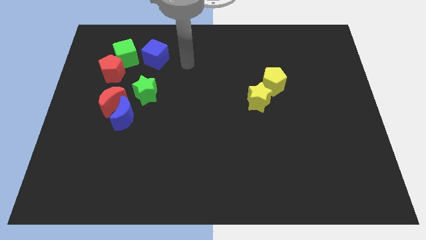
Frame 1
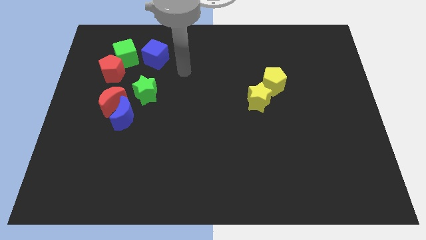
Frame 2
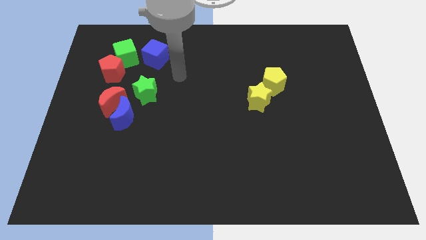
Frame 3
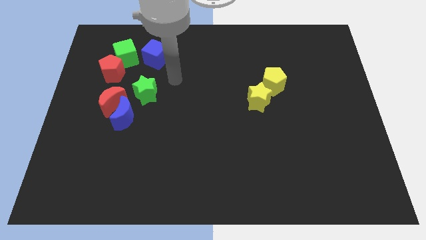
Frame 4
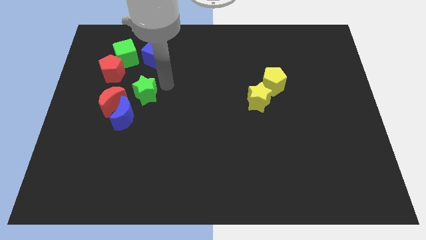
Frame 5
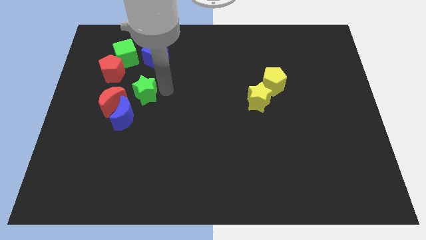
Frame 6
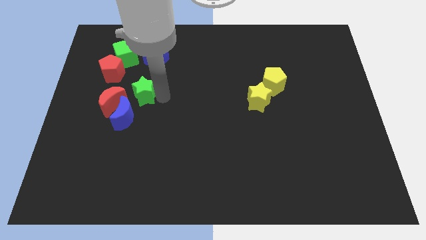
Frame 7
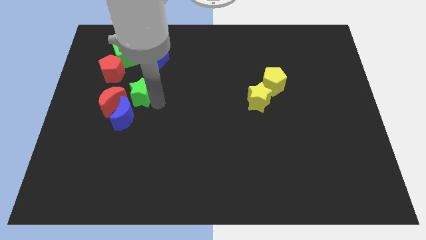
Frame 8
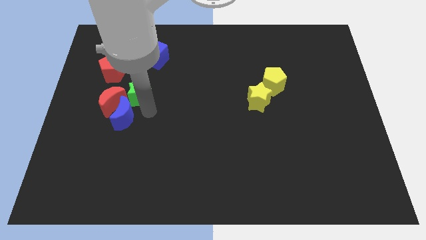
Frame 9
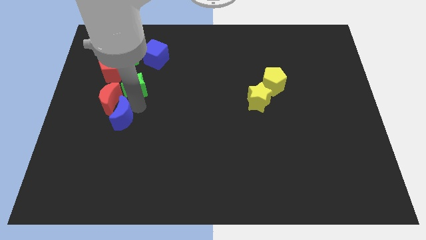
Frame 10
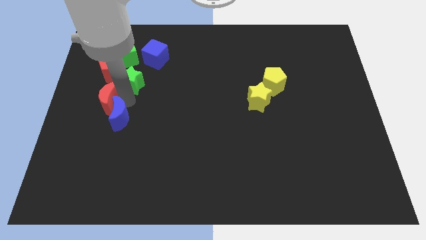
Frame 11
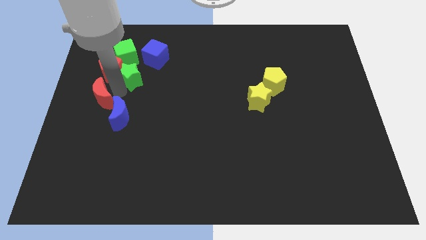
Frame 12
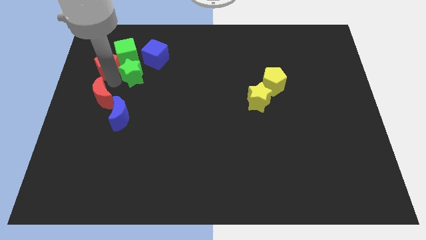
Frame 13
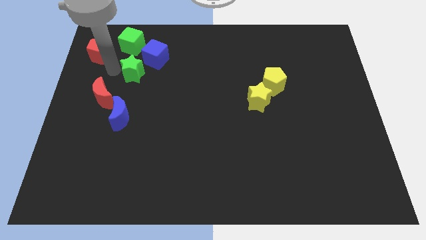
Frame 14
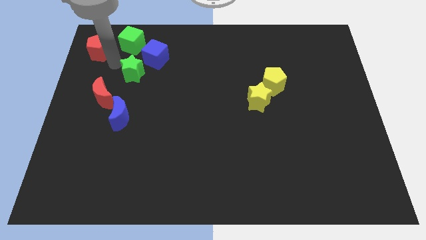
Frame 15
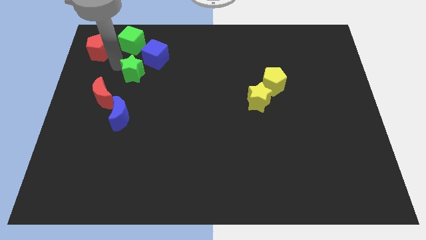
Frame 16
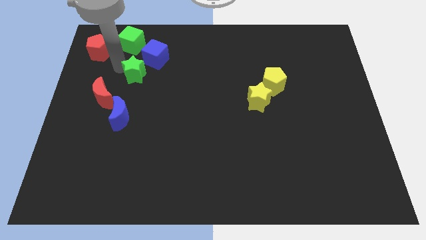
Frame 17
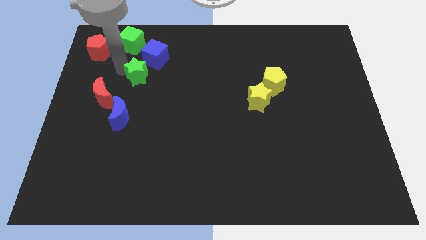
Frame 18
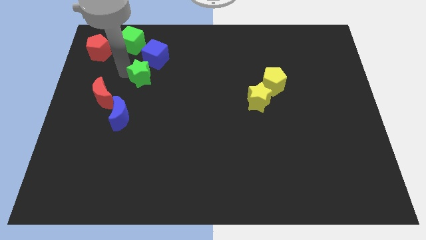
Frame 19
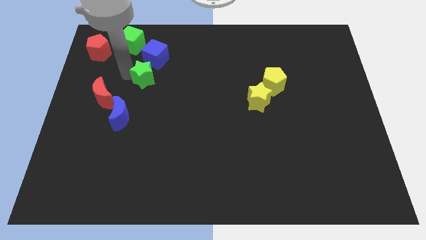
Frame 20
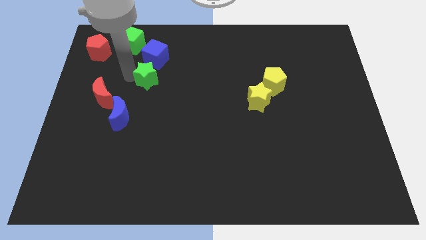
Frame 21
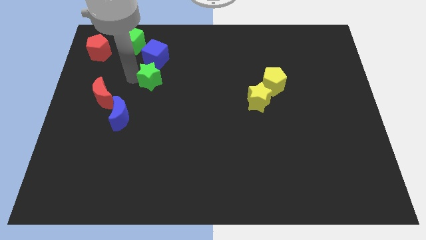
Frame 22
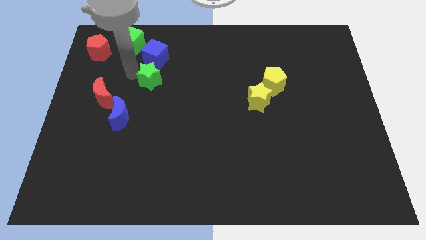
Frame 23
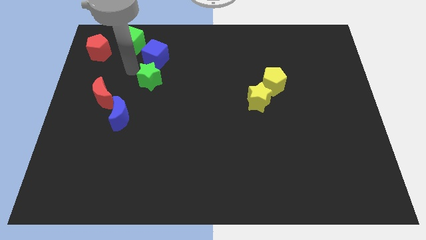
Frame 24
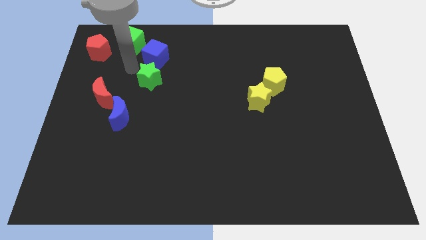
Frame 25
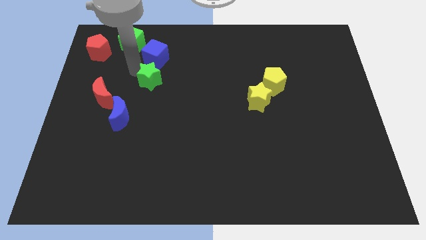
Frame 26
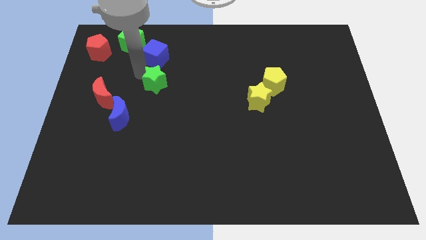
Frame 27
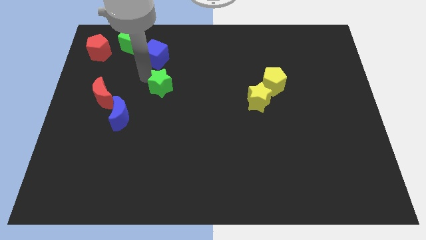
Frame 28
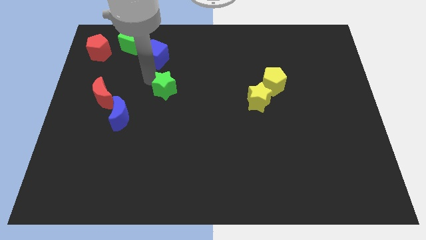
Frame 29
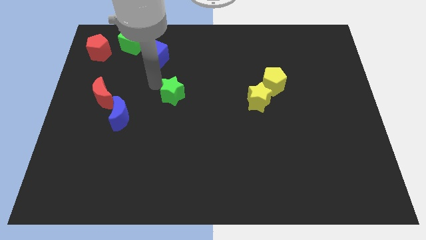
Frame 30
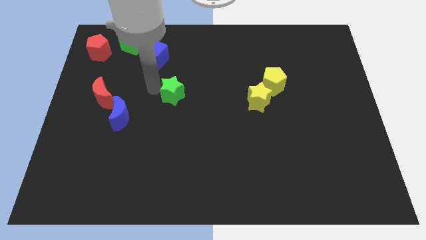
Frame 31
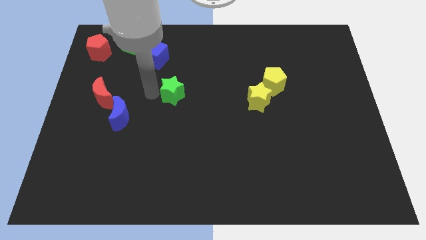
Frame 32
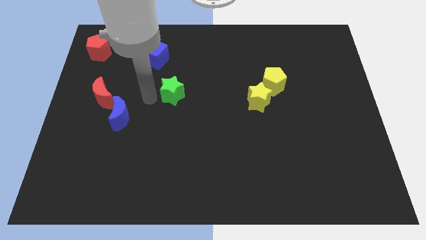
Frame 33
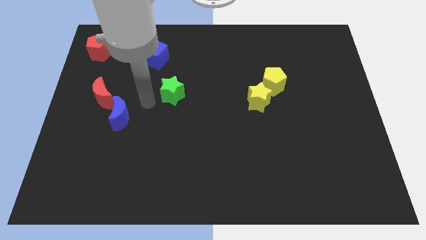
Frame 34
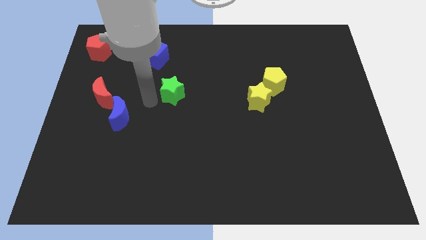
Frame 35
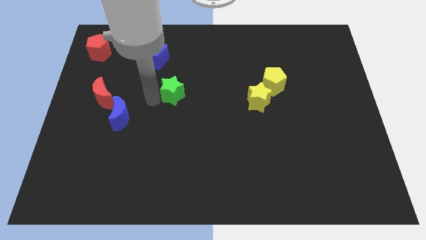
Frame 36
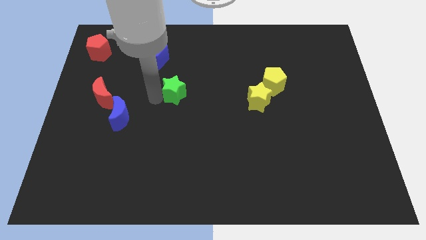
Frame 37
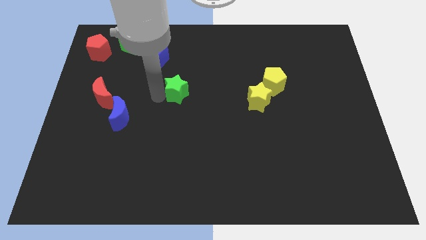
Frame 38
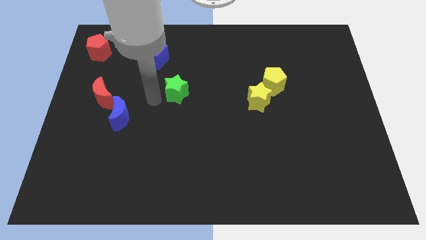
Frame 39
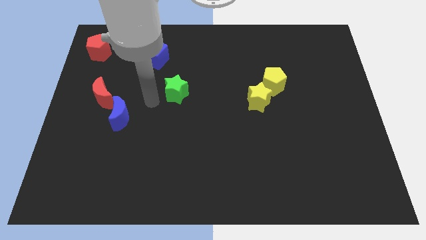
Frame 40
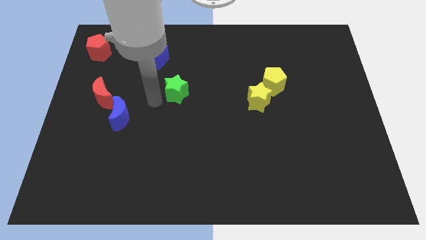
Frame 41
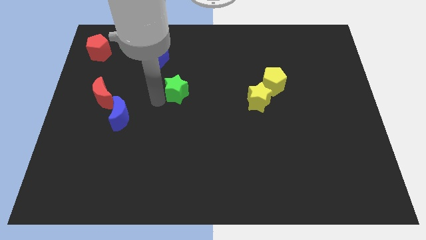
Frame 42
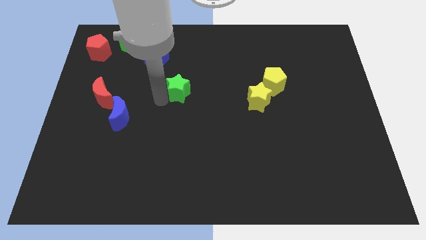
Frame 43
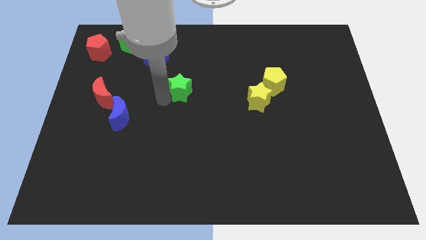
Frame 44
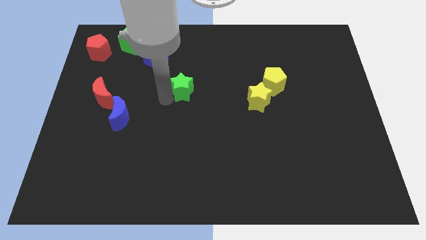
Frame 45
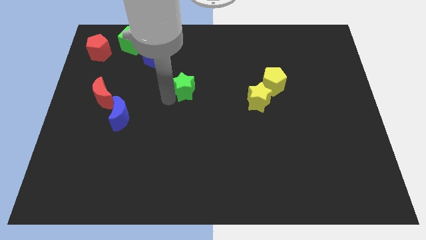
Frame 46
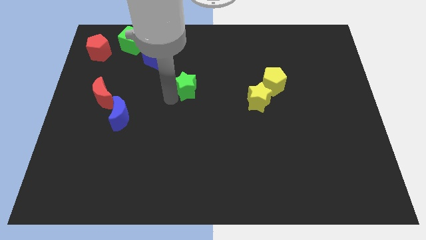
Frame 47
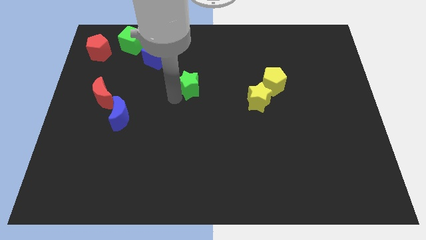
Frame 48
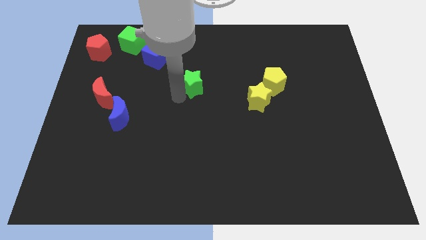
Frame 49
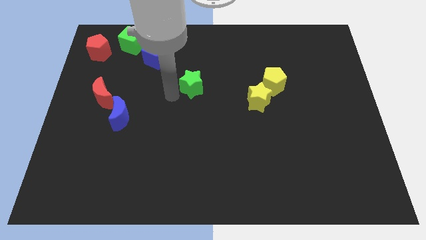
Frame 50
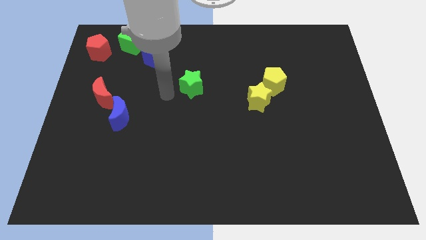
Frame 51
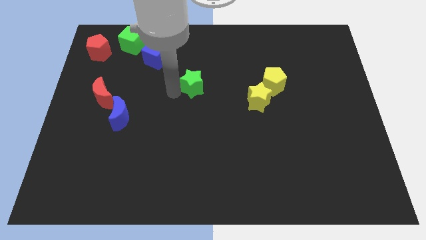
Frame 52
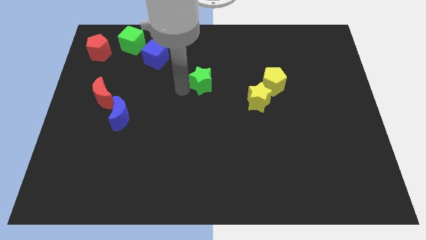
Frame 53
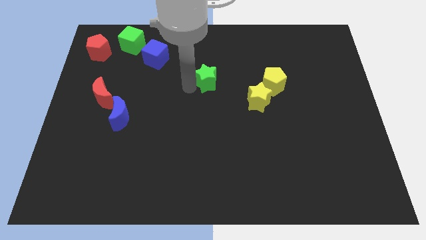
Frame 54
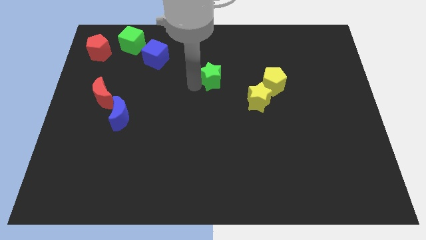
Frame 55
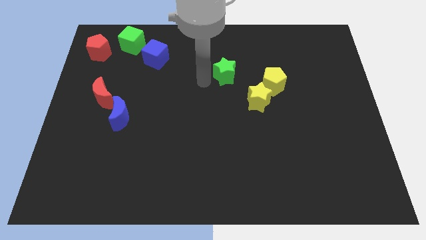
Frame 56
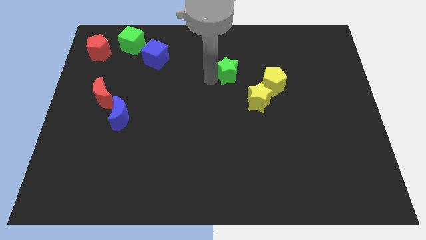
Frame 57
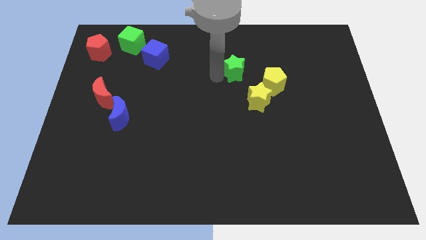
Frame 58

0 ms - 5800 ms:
push the green star to the top left side of the yellow pentagon

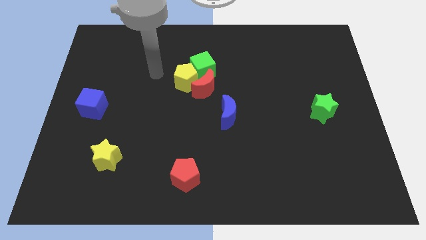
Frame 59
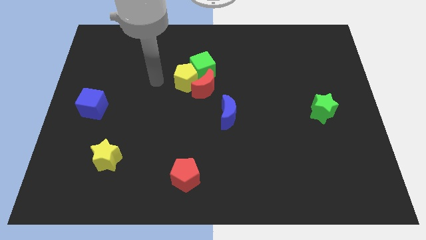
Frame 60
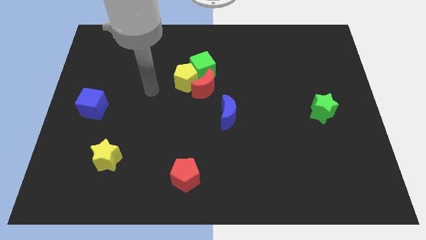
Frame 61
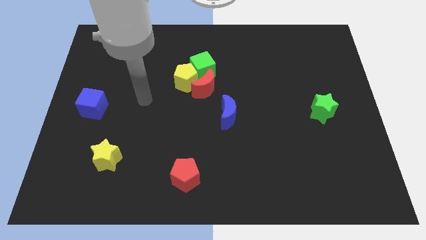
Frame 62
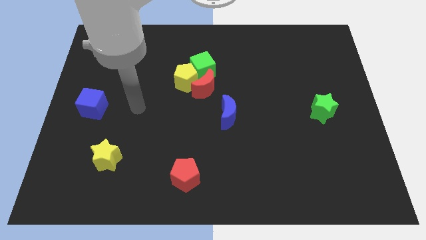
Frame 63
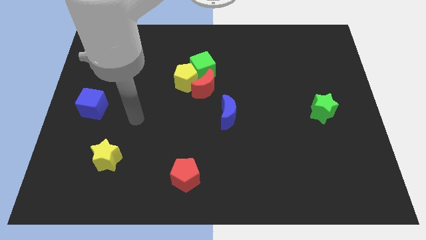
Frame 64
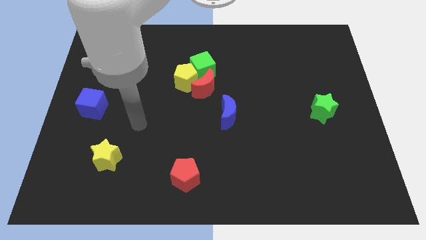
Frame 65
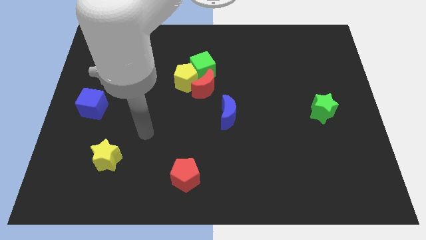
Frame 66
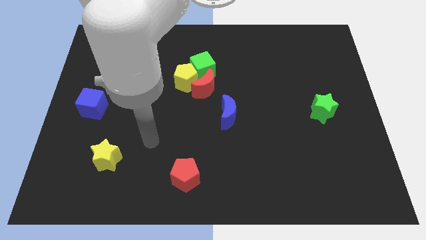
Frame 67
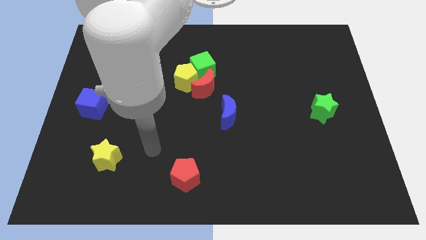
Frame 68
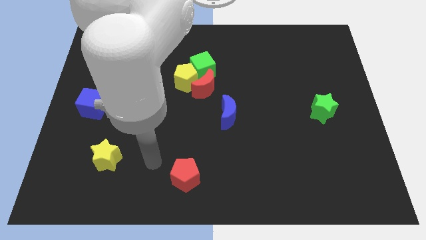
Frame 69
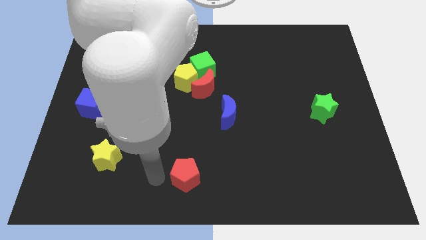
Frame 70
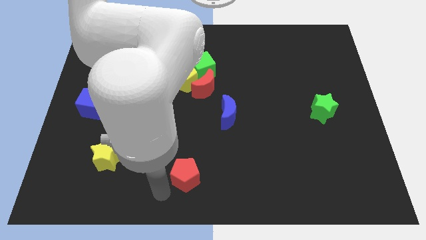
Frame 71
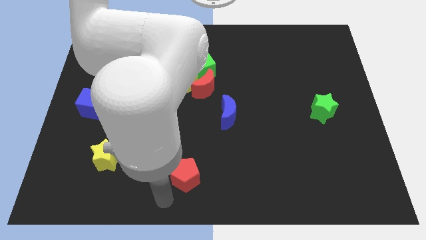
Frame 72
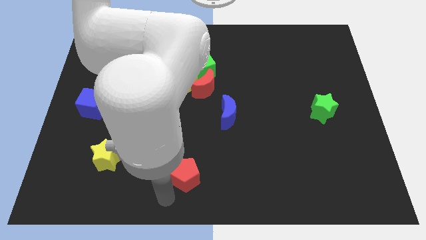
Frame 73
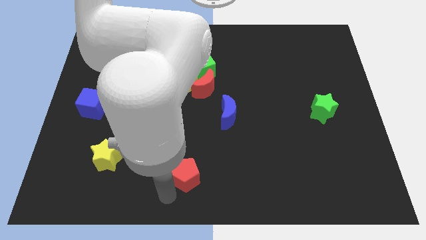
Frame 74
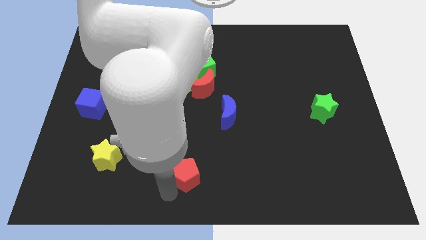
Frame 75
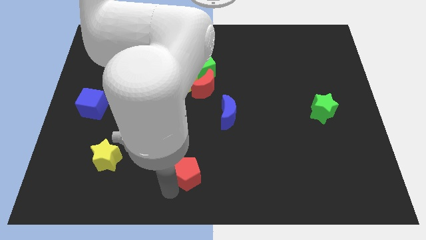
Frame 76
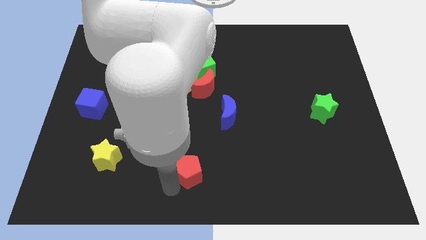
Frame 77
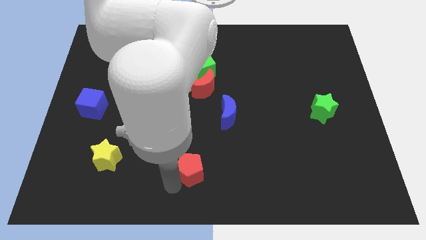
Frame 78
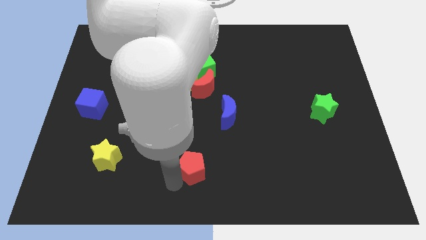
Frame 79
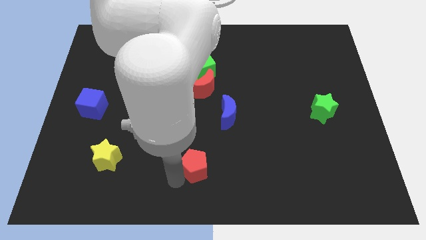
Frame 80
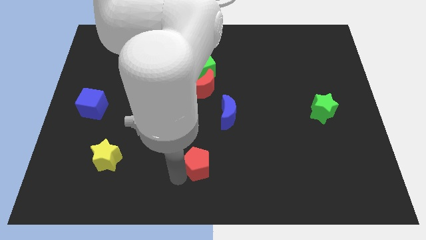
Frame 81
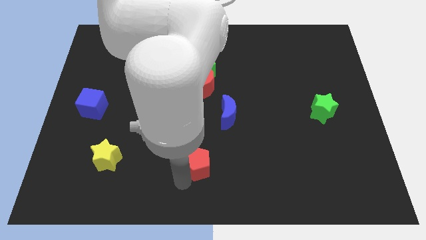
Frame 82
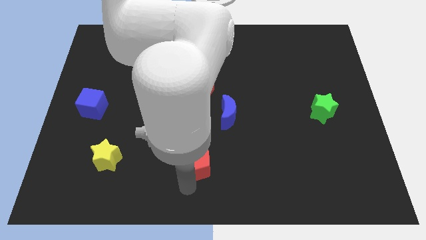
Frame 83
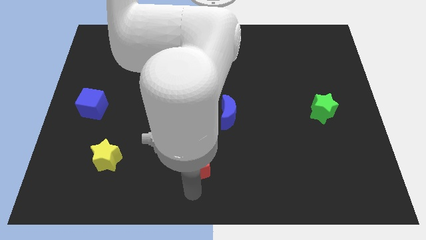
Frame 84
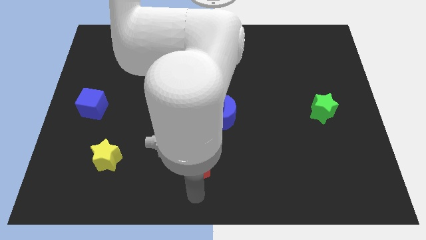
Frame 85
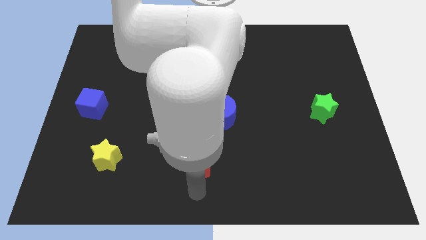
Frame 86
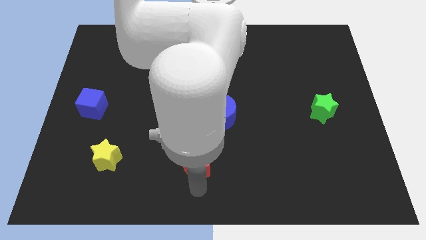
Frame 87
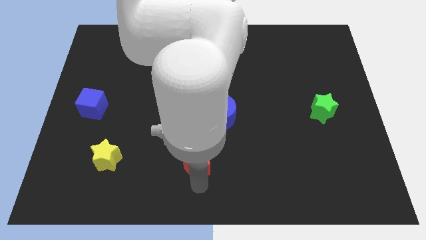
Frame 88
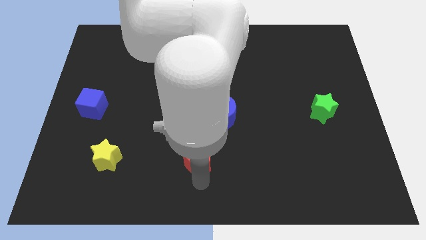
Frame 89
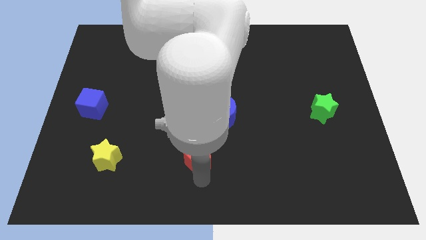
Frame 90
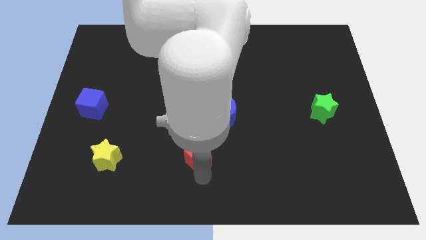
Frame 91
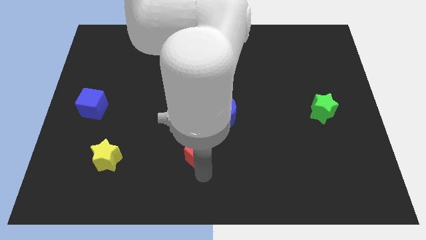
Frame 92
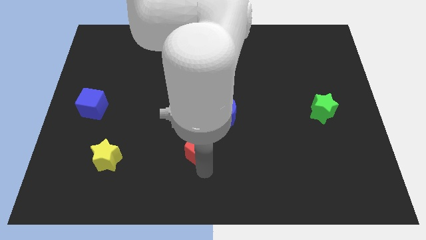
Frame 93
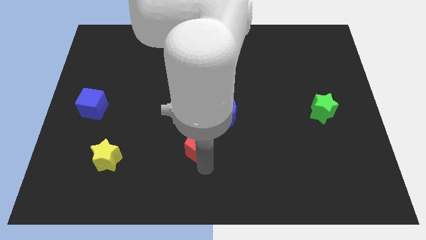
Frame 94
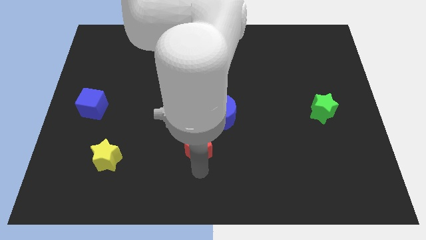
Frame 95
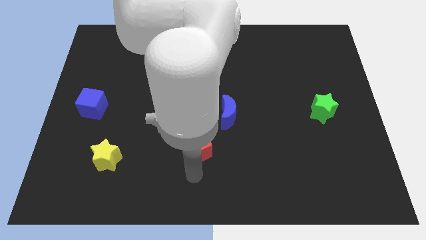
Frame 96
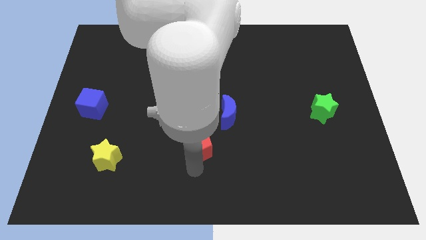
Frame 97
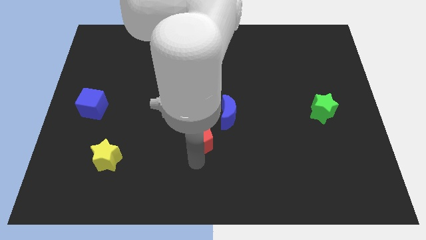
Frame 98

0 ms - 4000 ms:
put the red pentagon below the red moon
